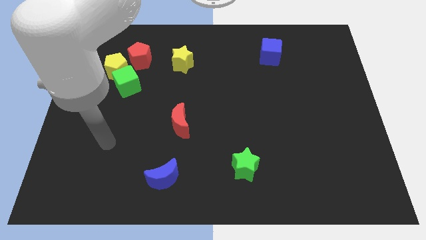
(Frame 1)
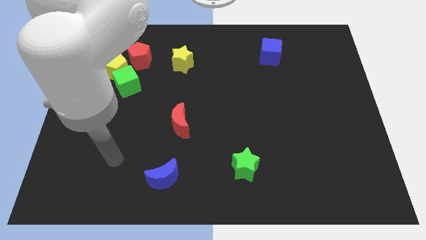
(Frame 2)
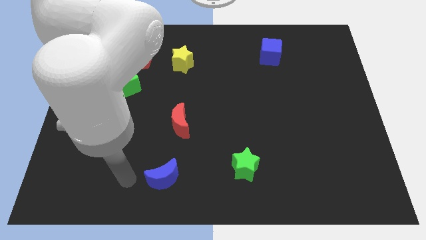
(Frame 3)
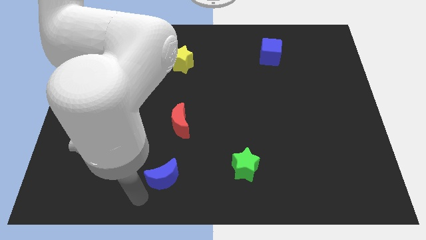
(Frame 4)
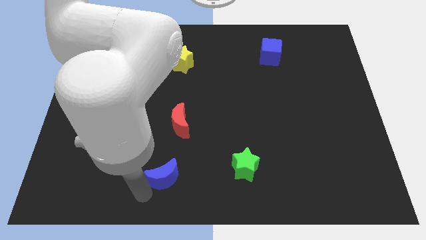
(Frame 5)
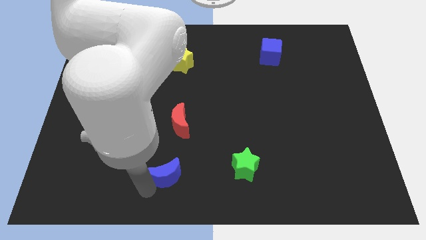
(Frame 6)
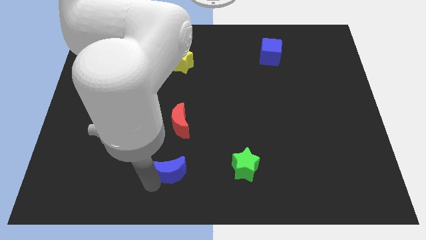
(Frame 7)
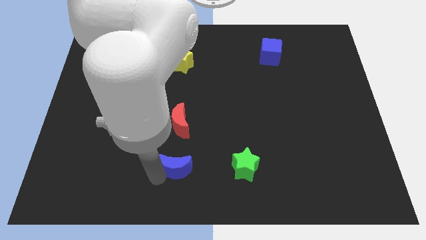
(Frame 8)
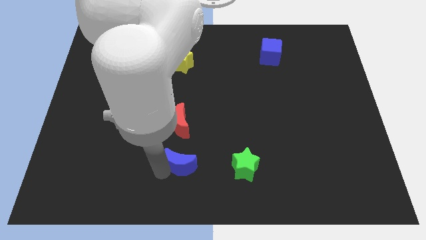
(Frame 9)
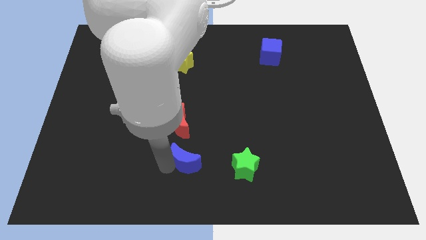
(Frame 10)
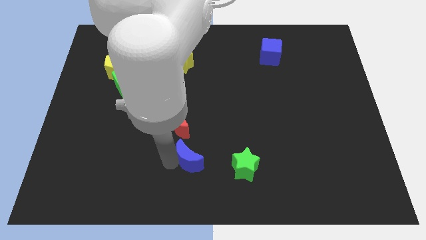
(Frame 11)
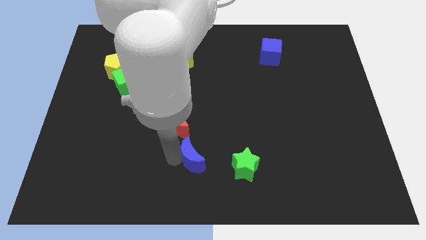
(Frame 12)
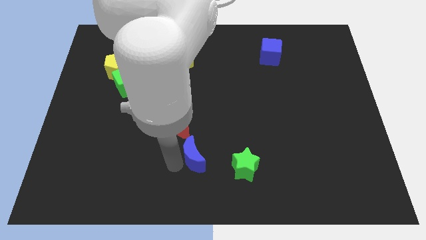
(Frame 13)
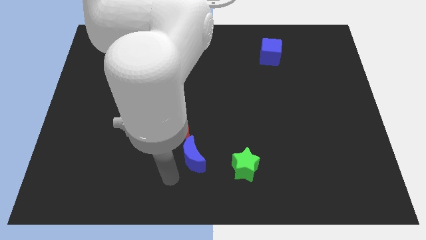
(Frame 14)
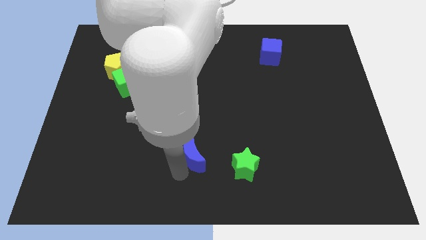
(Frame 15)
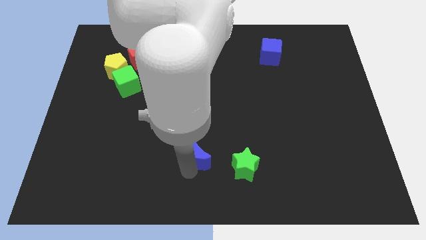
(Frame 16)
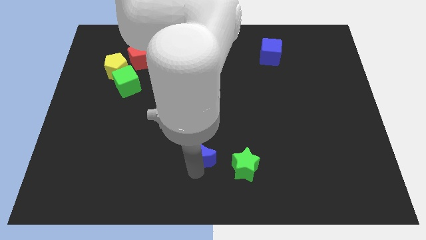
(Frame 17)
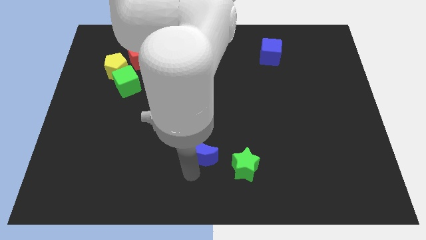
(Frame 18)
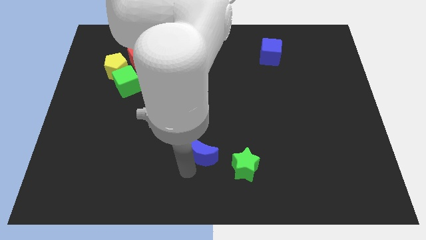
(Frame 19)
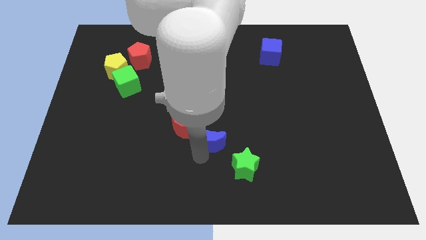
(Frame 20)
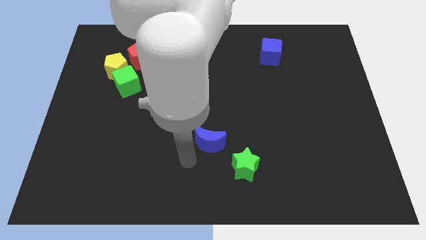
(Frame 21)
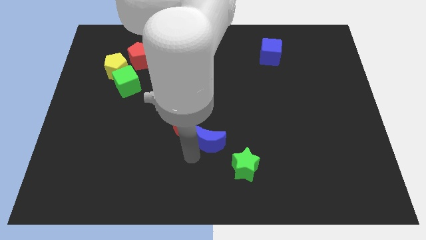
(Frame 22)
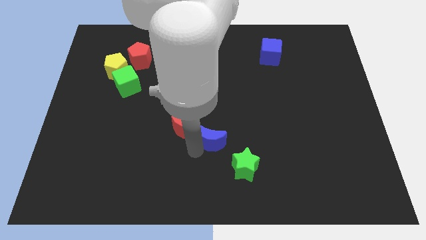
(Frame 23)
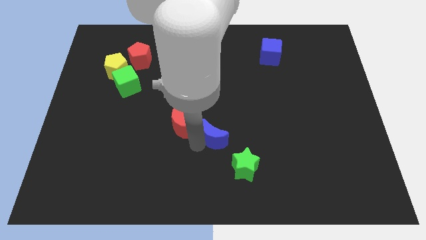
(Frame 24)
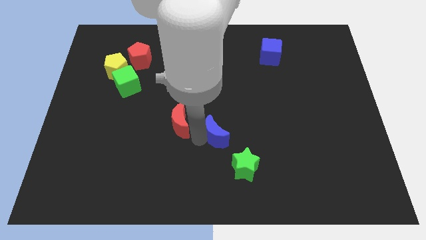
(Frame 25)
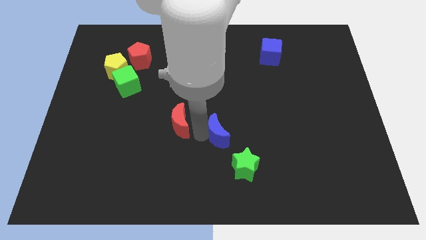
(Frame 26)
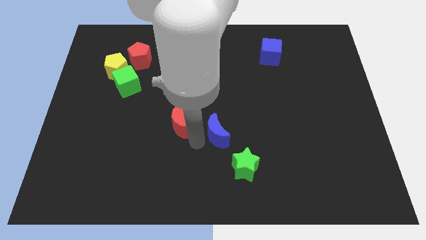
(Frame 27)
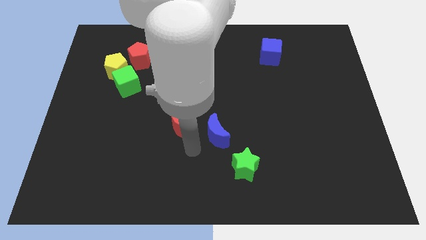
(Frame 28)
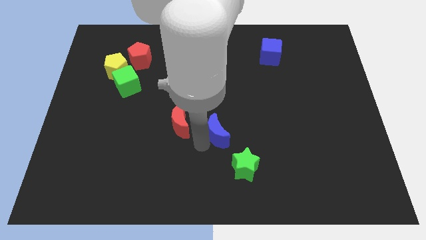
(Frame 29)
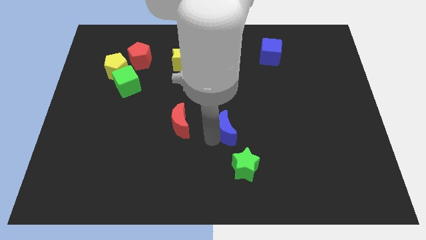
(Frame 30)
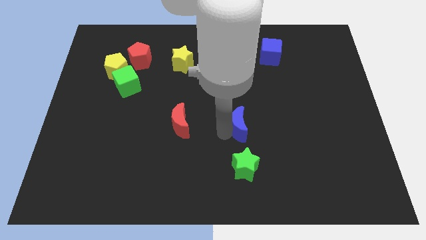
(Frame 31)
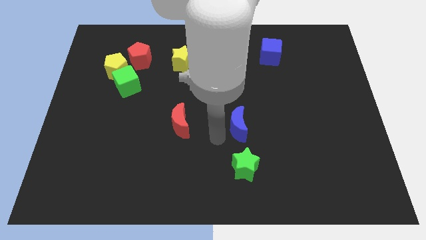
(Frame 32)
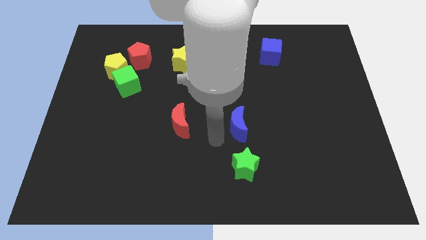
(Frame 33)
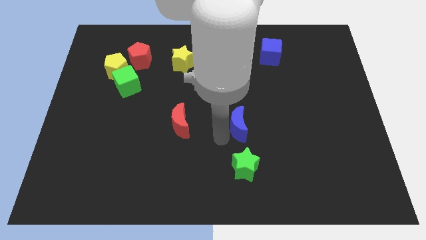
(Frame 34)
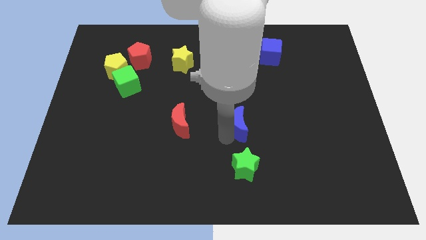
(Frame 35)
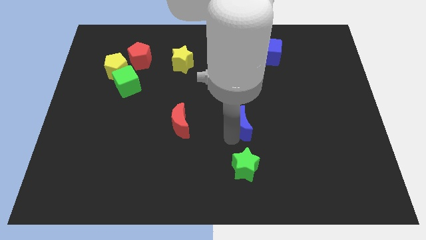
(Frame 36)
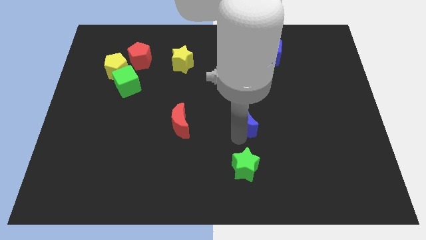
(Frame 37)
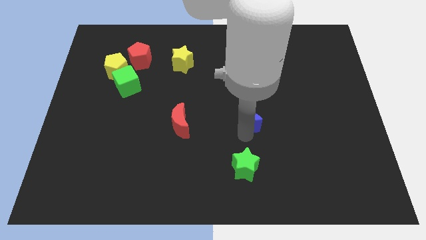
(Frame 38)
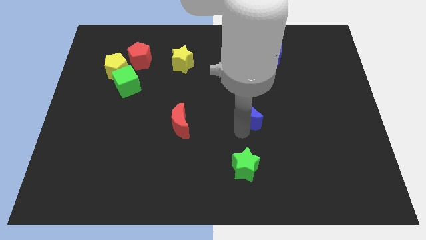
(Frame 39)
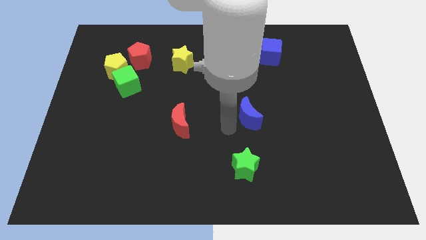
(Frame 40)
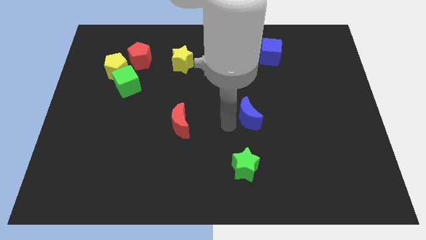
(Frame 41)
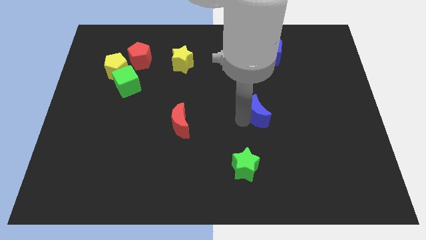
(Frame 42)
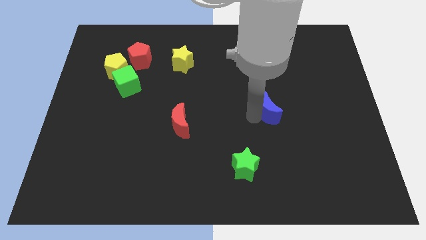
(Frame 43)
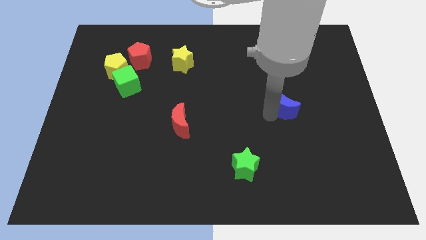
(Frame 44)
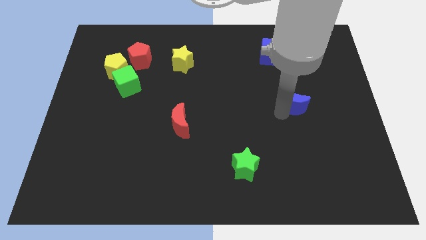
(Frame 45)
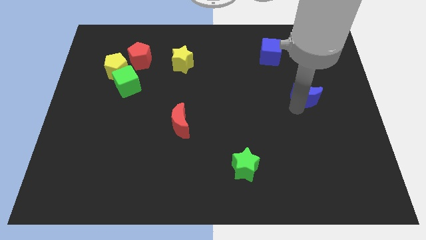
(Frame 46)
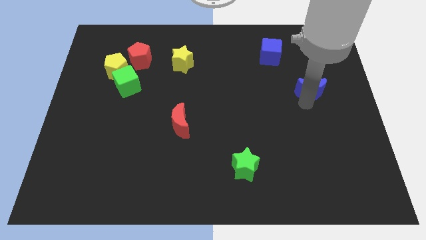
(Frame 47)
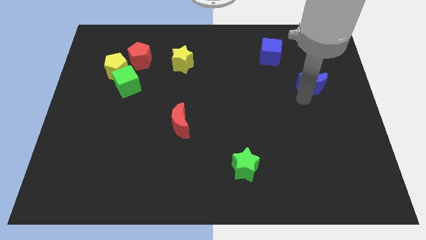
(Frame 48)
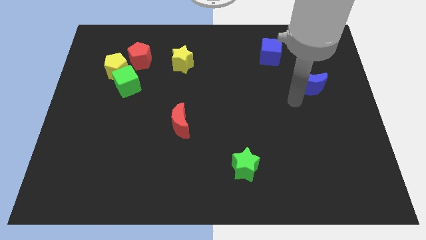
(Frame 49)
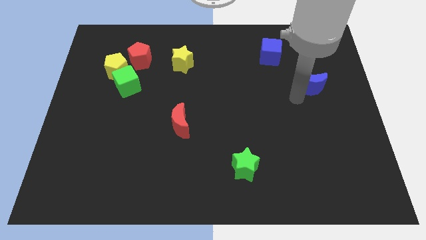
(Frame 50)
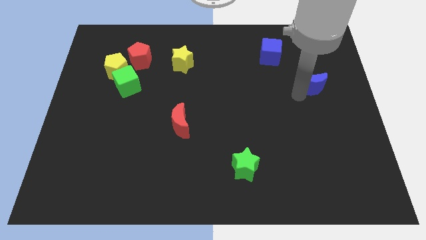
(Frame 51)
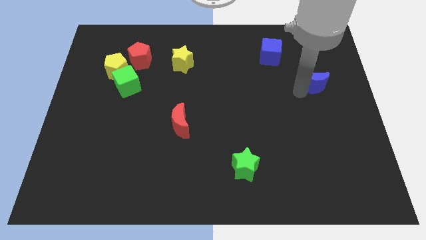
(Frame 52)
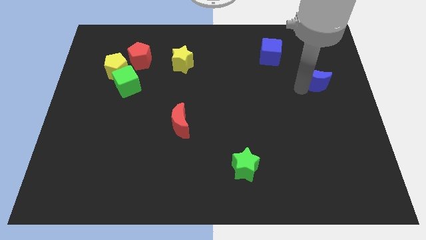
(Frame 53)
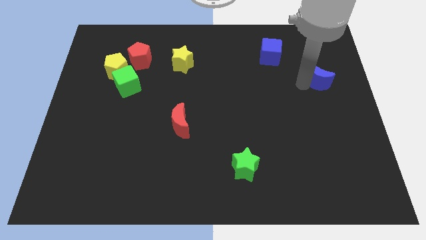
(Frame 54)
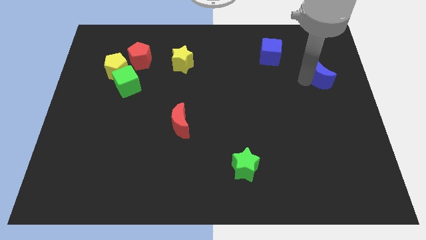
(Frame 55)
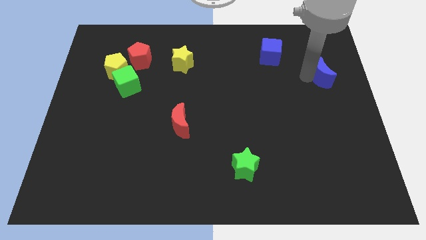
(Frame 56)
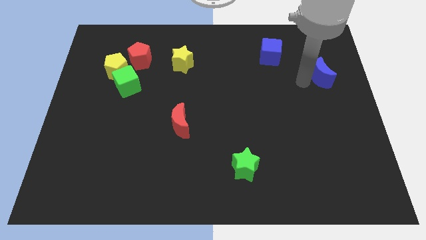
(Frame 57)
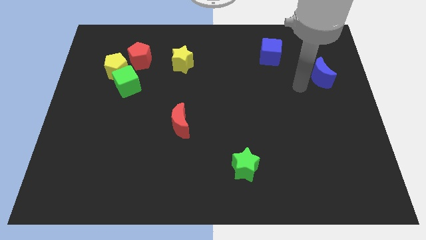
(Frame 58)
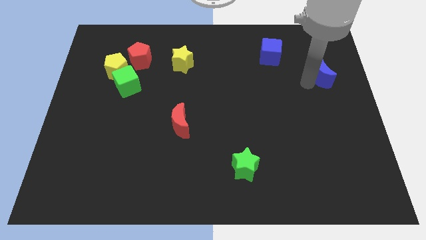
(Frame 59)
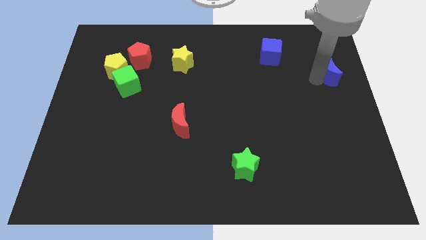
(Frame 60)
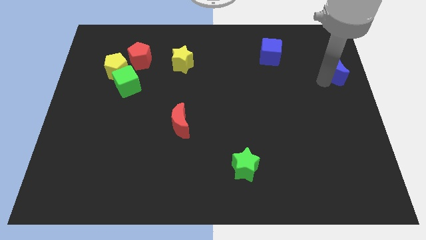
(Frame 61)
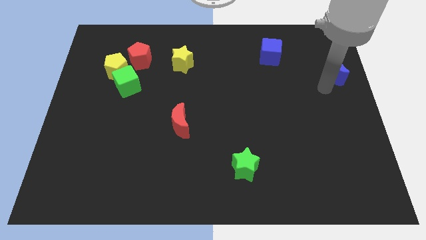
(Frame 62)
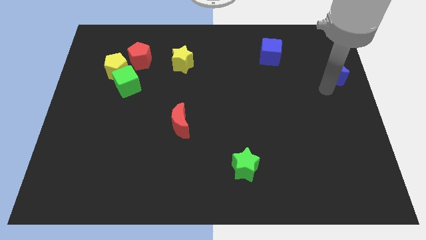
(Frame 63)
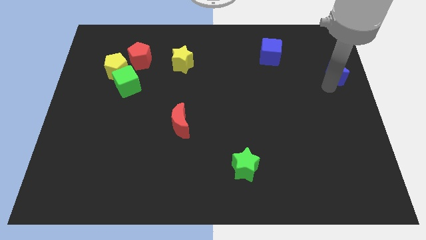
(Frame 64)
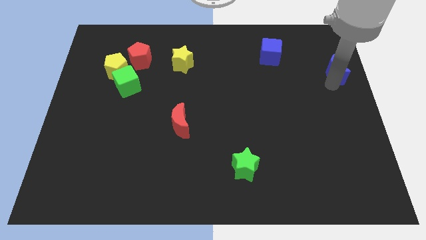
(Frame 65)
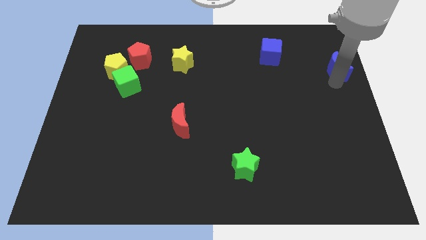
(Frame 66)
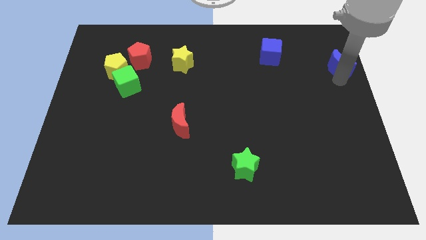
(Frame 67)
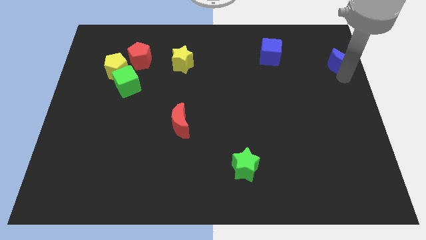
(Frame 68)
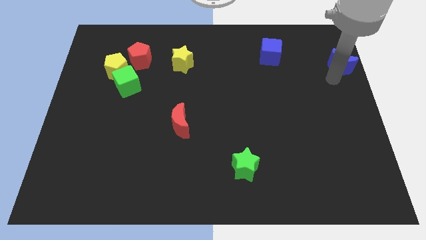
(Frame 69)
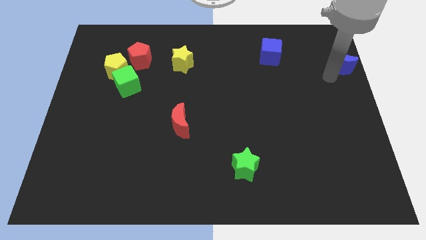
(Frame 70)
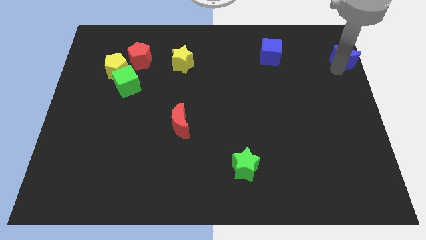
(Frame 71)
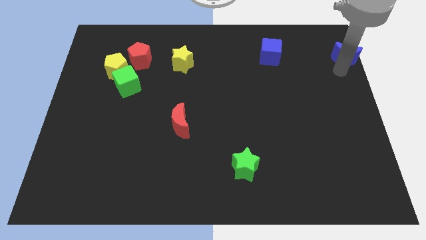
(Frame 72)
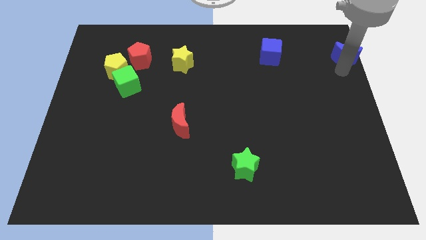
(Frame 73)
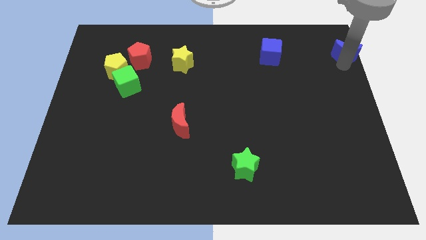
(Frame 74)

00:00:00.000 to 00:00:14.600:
move the blue moon to the top right of the board
